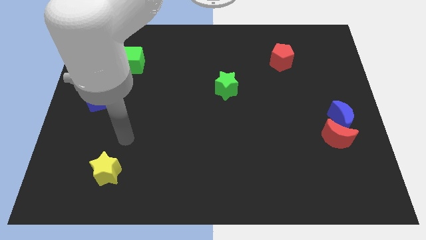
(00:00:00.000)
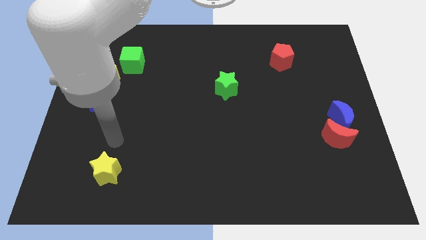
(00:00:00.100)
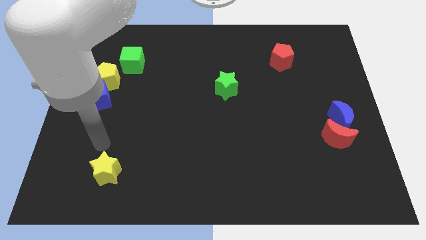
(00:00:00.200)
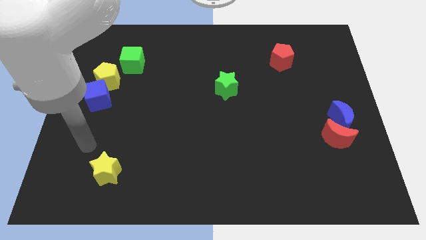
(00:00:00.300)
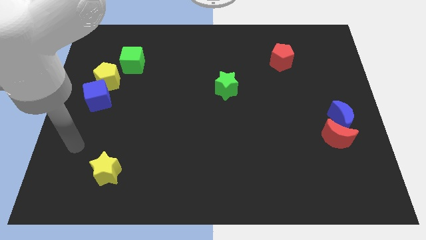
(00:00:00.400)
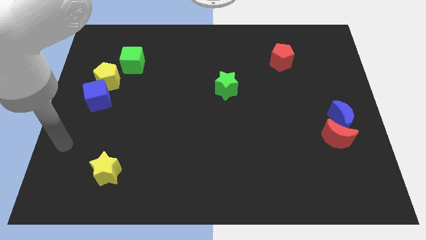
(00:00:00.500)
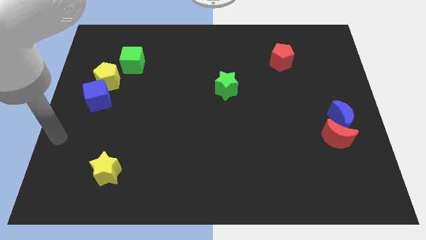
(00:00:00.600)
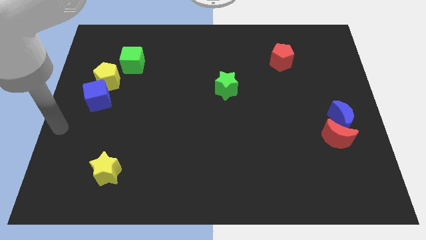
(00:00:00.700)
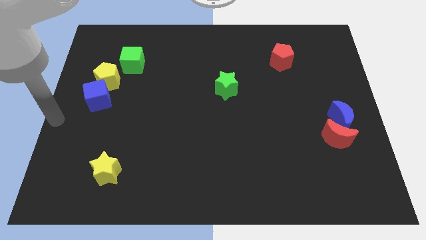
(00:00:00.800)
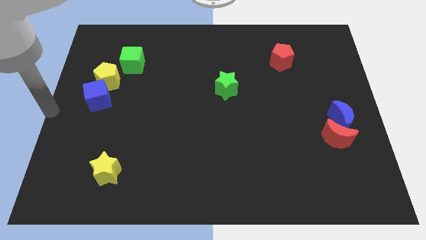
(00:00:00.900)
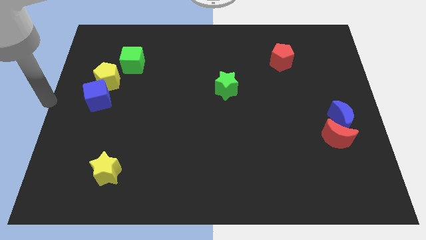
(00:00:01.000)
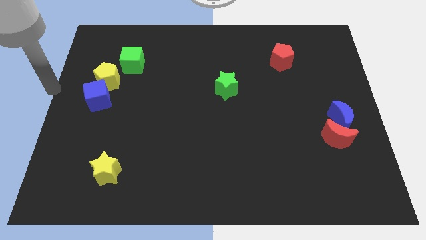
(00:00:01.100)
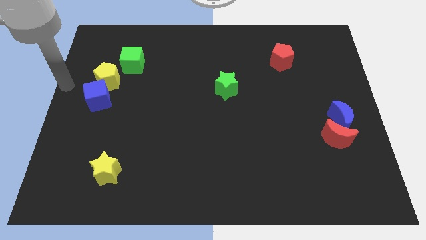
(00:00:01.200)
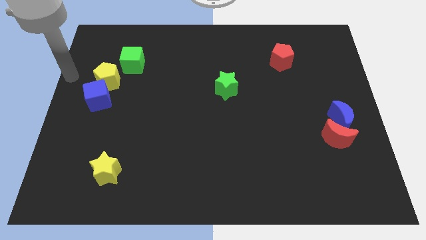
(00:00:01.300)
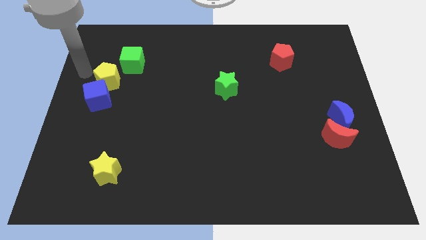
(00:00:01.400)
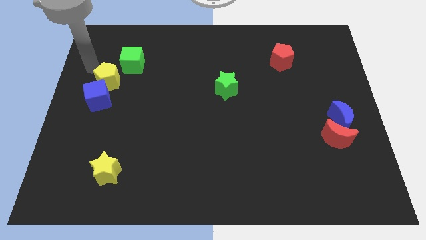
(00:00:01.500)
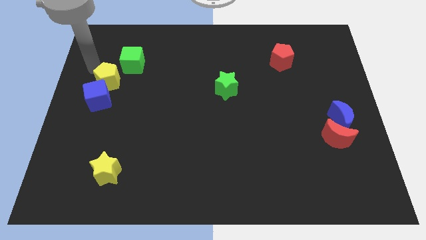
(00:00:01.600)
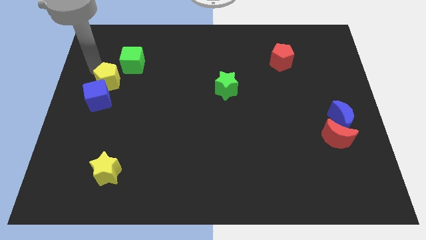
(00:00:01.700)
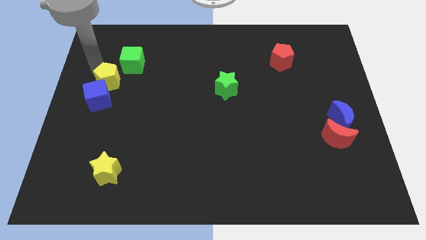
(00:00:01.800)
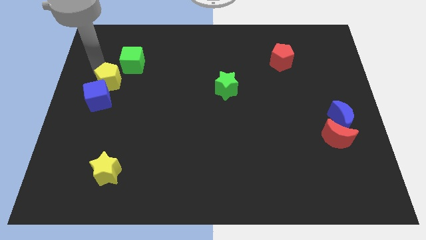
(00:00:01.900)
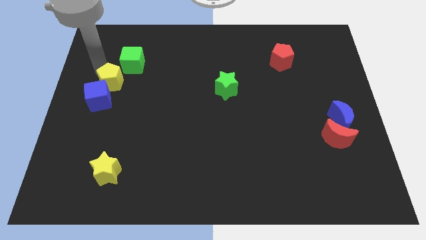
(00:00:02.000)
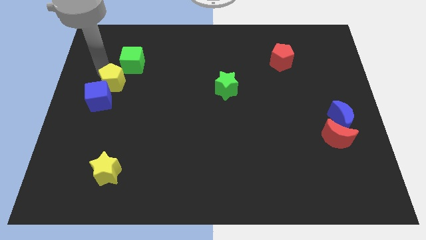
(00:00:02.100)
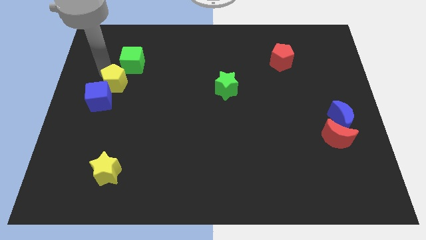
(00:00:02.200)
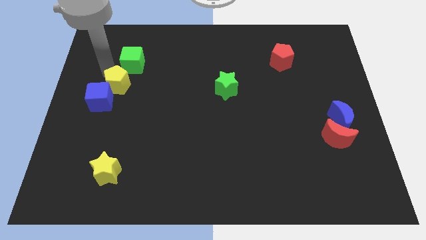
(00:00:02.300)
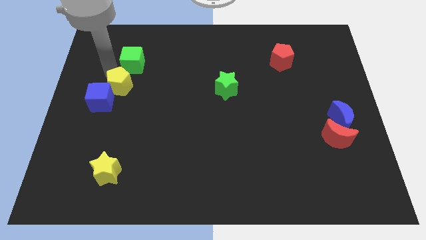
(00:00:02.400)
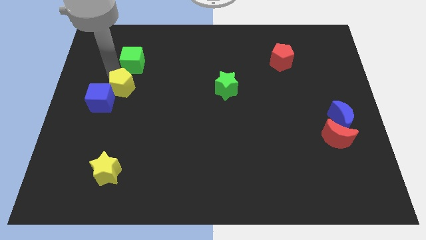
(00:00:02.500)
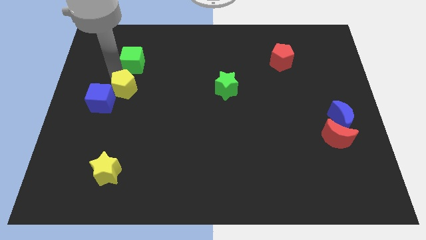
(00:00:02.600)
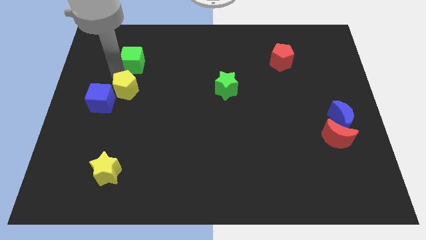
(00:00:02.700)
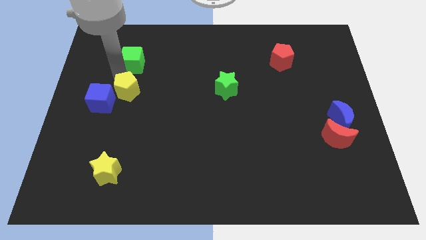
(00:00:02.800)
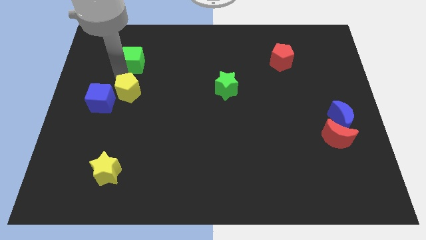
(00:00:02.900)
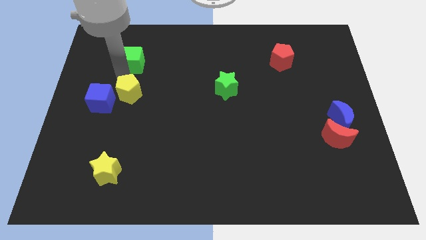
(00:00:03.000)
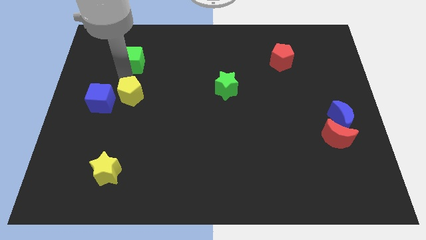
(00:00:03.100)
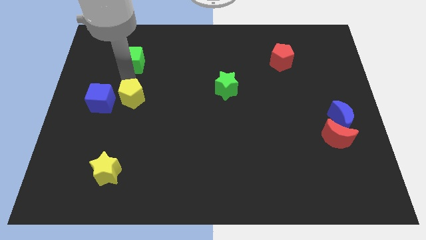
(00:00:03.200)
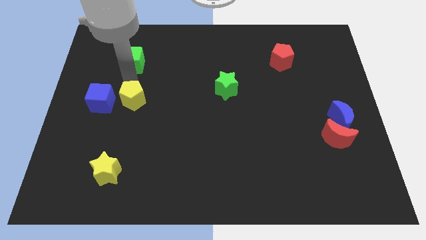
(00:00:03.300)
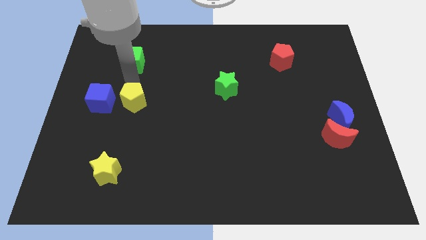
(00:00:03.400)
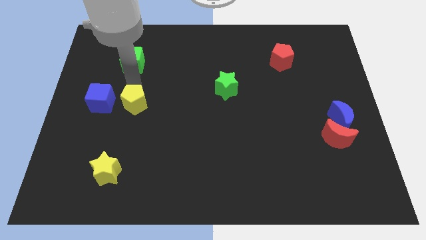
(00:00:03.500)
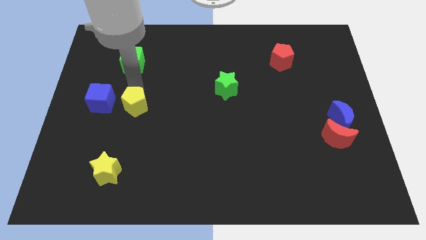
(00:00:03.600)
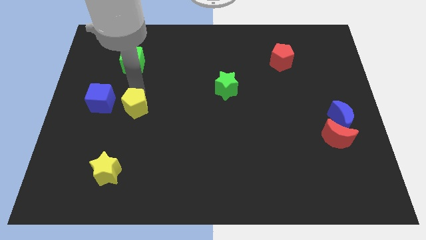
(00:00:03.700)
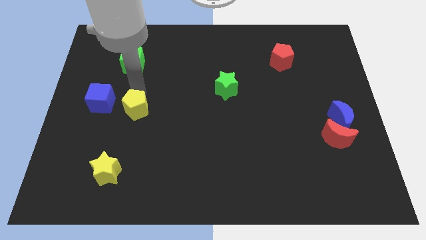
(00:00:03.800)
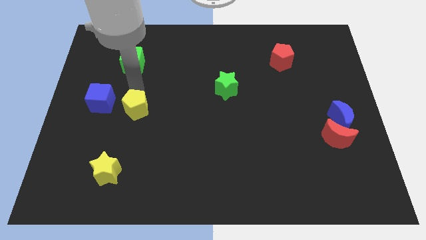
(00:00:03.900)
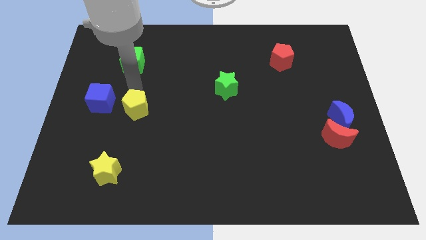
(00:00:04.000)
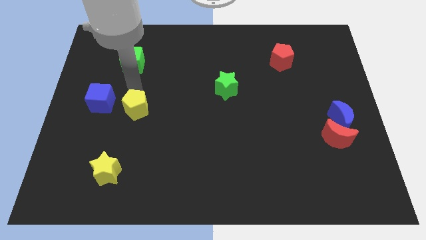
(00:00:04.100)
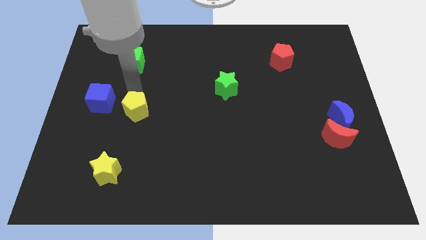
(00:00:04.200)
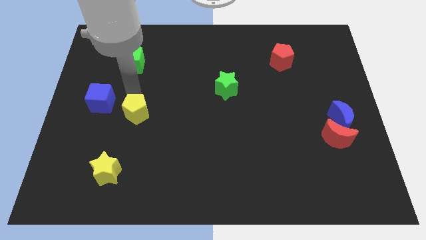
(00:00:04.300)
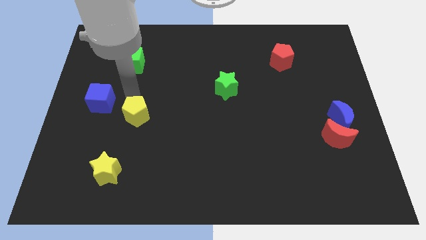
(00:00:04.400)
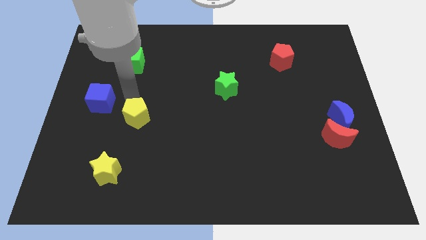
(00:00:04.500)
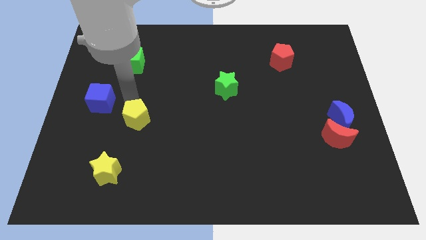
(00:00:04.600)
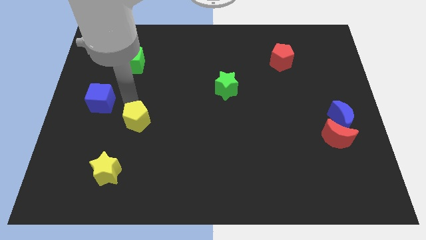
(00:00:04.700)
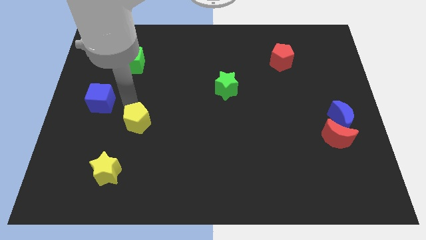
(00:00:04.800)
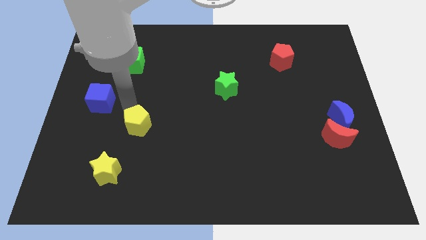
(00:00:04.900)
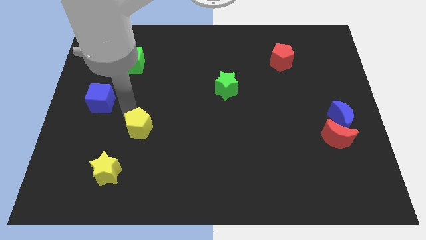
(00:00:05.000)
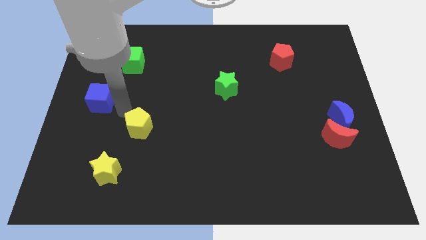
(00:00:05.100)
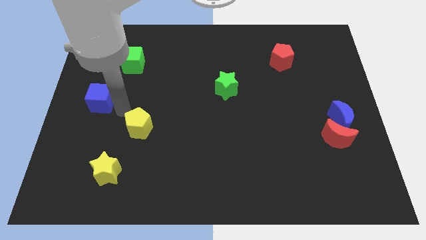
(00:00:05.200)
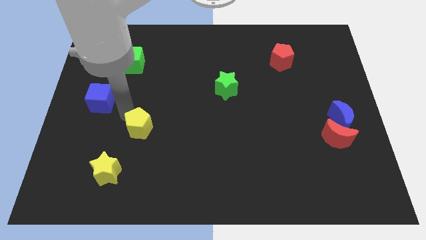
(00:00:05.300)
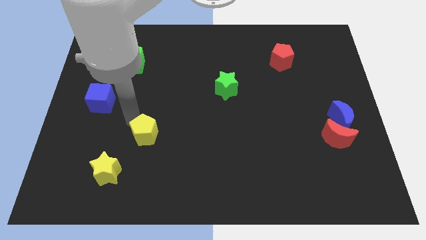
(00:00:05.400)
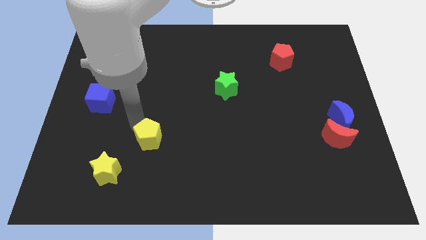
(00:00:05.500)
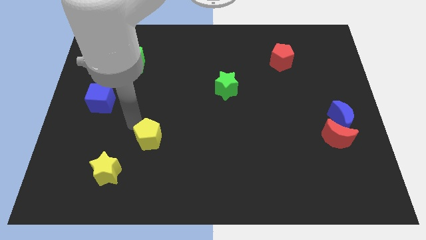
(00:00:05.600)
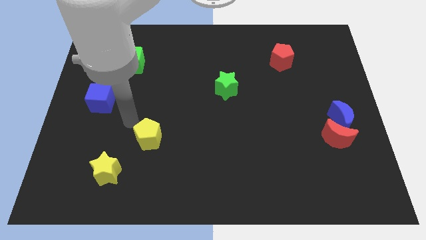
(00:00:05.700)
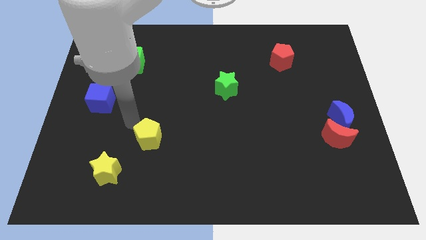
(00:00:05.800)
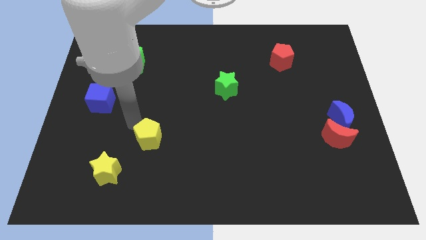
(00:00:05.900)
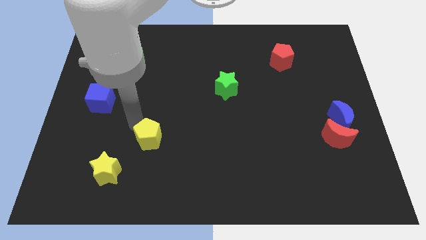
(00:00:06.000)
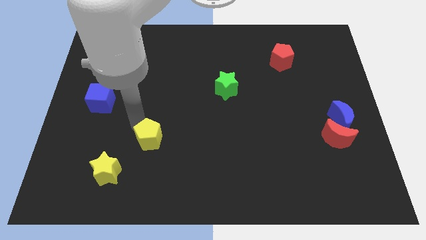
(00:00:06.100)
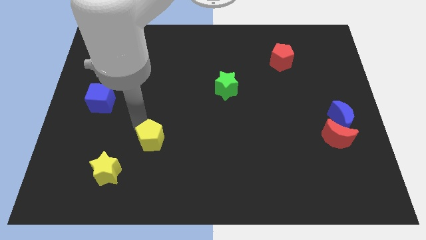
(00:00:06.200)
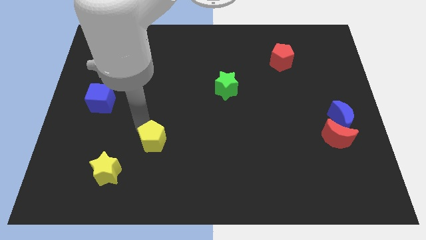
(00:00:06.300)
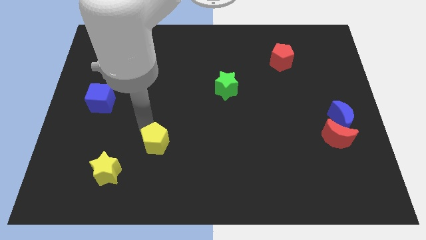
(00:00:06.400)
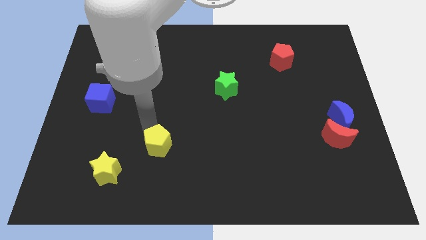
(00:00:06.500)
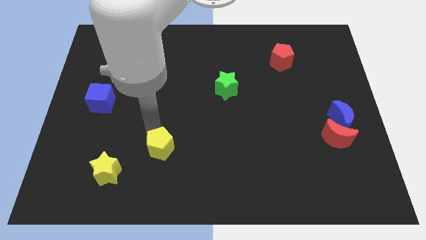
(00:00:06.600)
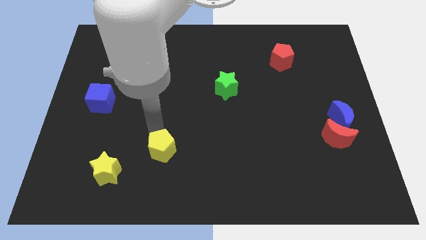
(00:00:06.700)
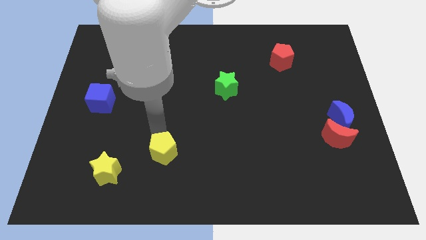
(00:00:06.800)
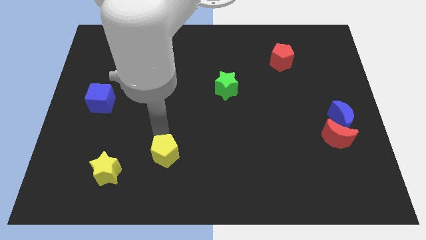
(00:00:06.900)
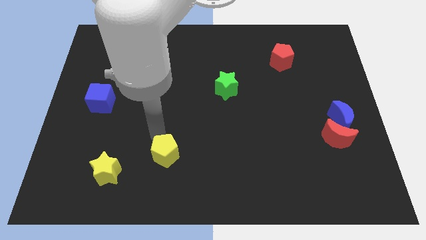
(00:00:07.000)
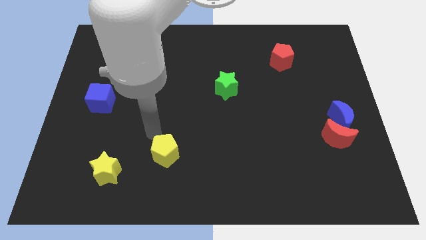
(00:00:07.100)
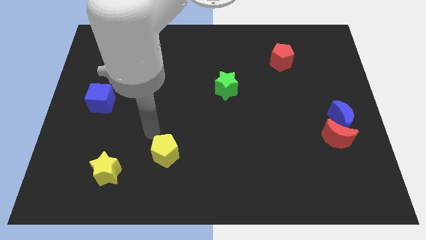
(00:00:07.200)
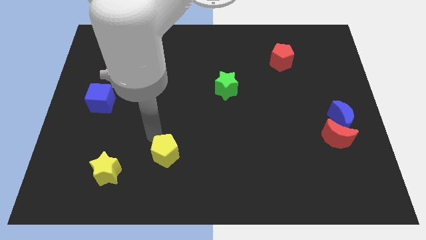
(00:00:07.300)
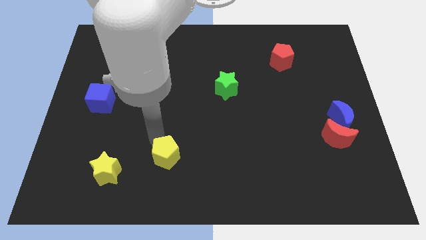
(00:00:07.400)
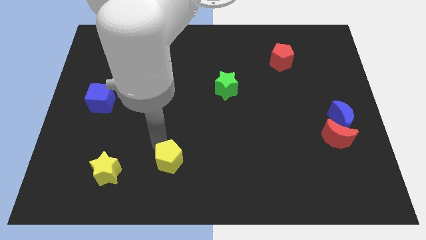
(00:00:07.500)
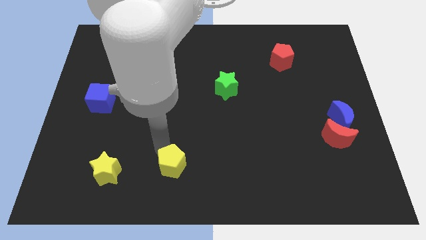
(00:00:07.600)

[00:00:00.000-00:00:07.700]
slide the yellow pentagon to the bottom
